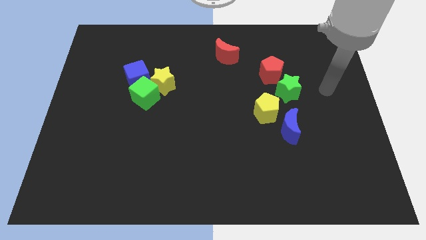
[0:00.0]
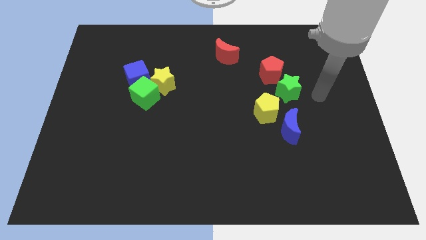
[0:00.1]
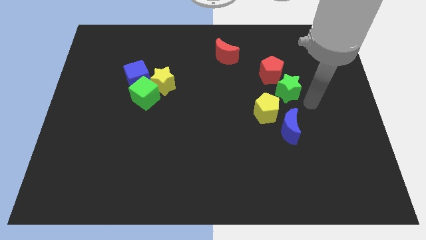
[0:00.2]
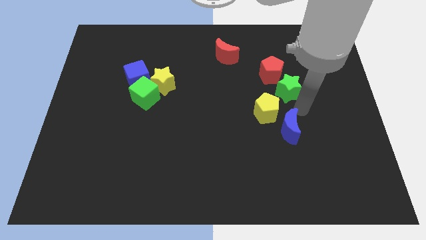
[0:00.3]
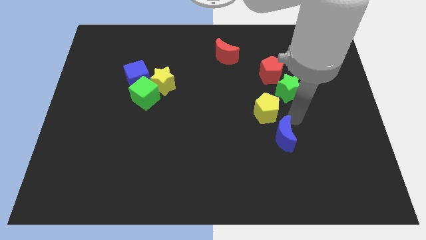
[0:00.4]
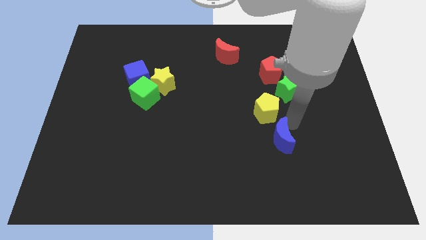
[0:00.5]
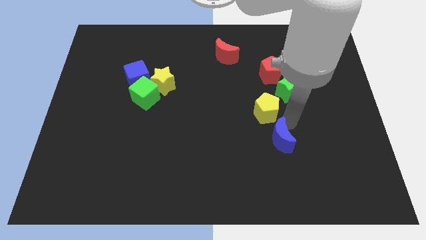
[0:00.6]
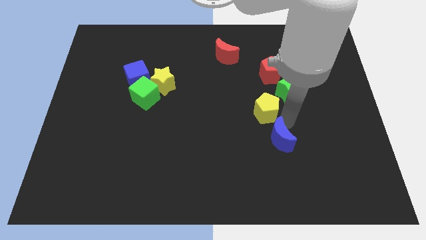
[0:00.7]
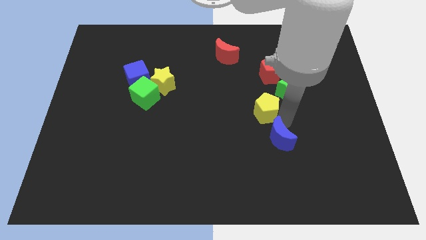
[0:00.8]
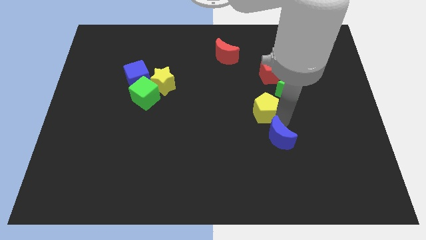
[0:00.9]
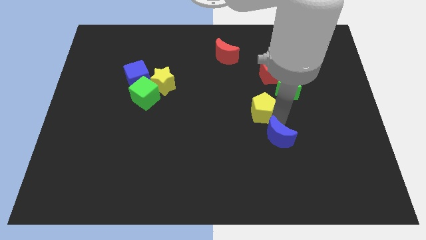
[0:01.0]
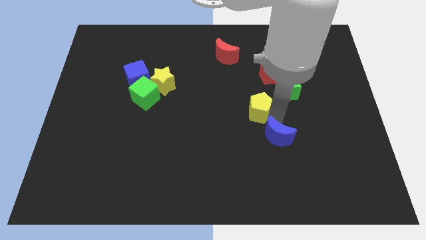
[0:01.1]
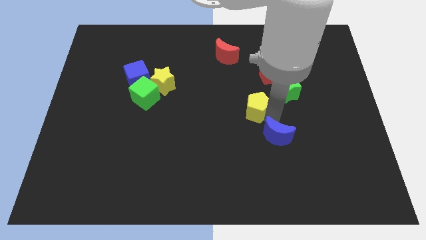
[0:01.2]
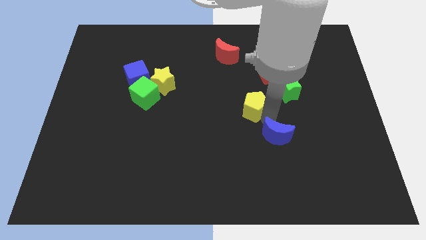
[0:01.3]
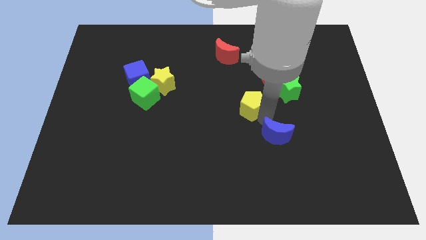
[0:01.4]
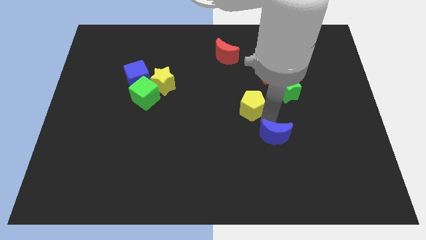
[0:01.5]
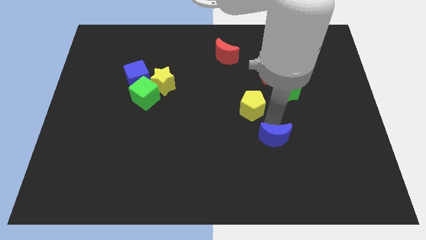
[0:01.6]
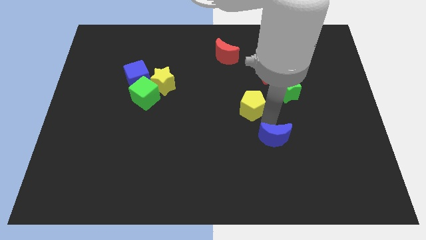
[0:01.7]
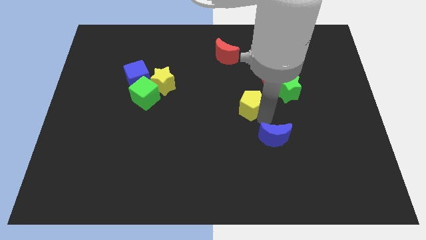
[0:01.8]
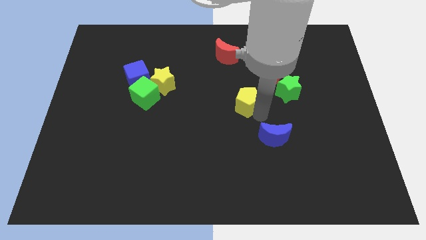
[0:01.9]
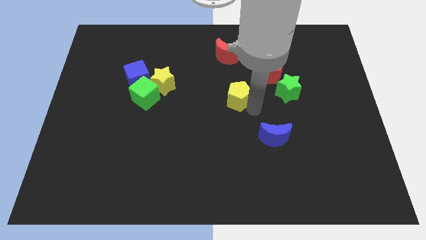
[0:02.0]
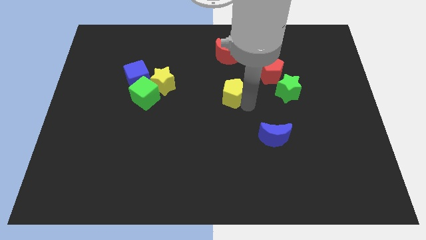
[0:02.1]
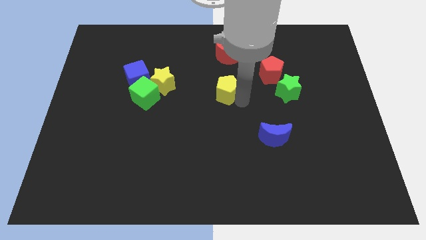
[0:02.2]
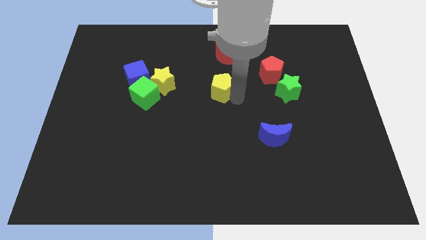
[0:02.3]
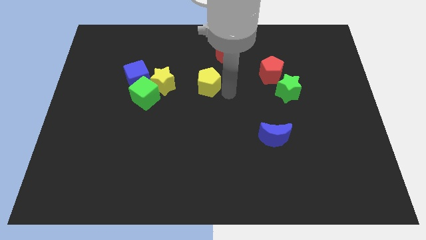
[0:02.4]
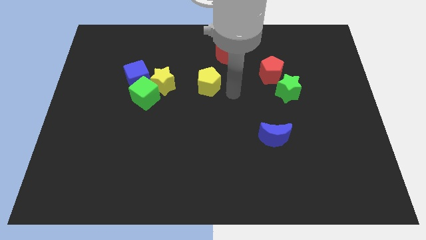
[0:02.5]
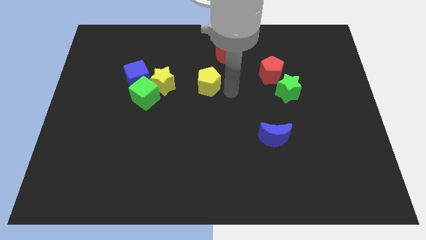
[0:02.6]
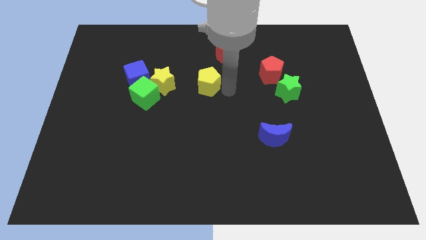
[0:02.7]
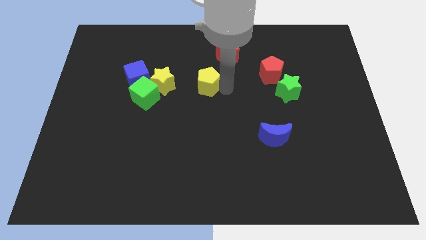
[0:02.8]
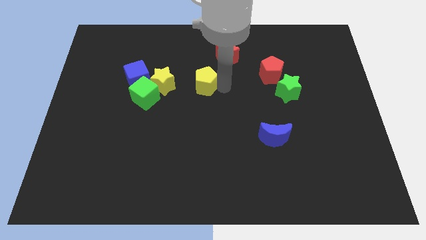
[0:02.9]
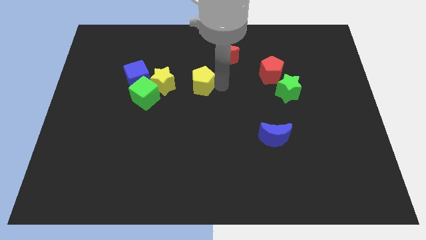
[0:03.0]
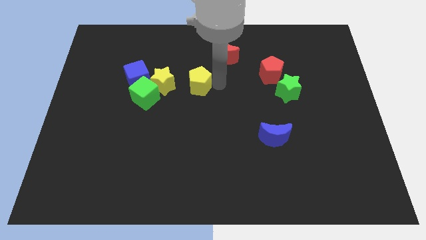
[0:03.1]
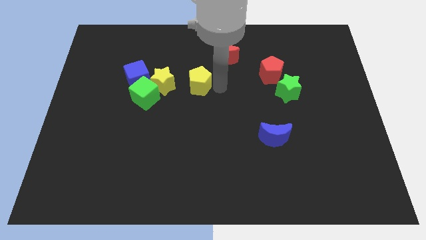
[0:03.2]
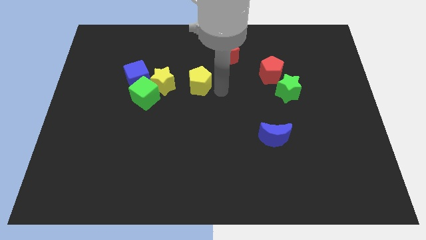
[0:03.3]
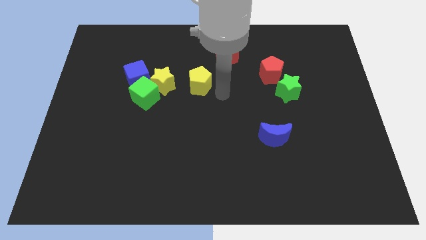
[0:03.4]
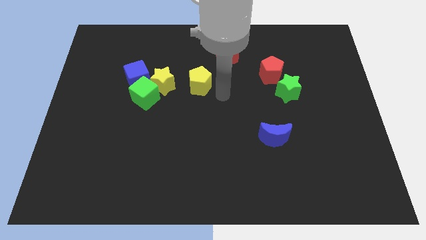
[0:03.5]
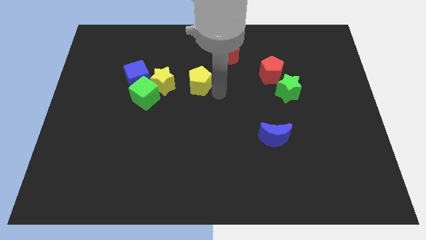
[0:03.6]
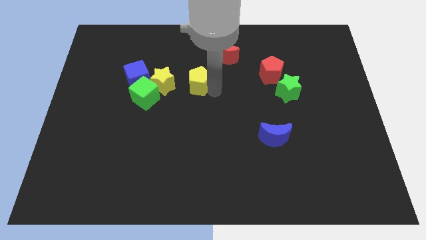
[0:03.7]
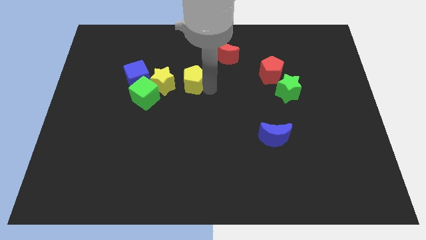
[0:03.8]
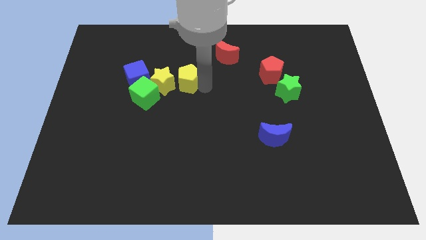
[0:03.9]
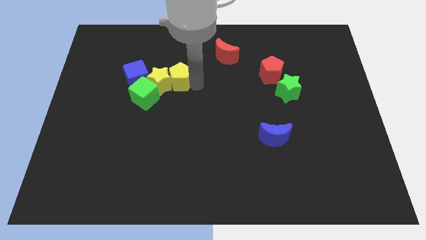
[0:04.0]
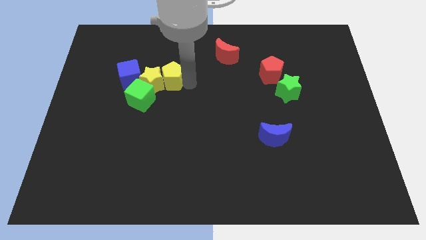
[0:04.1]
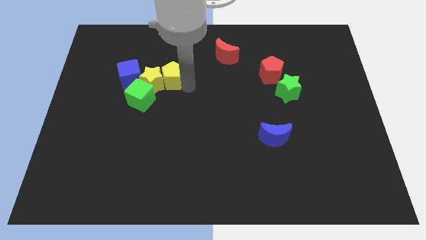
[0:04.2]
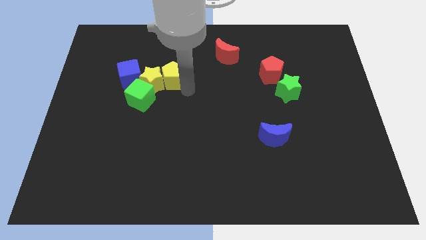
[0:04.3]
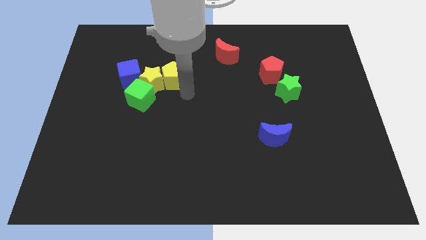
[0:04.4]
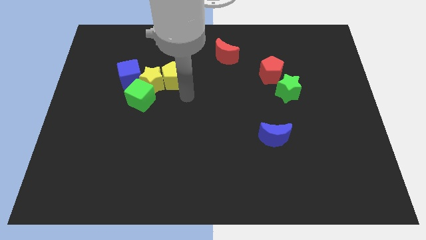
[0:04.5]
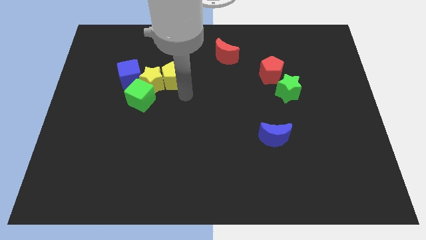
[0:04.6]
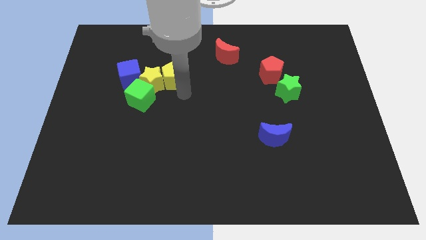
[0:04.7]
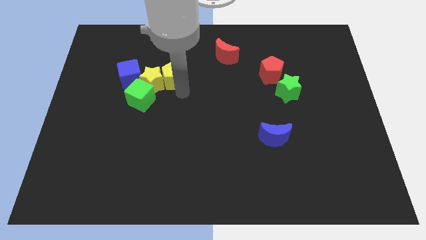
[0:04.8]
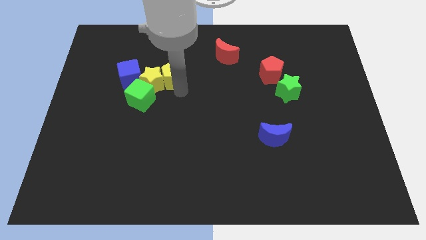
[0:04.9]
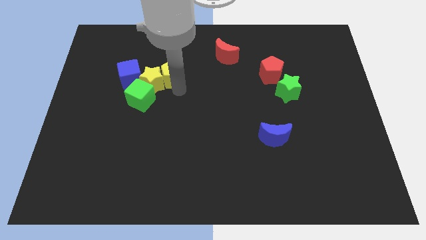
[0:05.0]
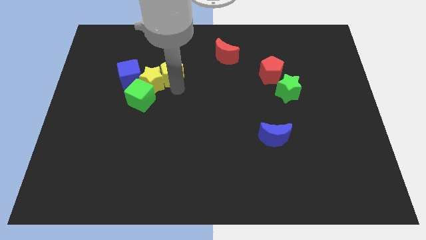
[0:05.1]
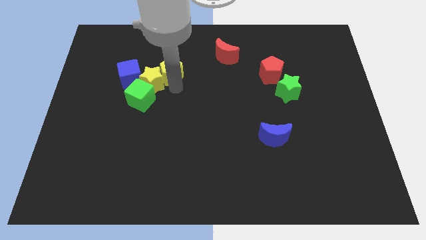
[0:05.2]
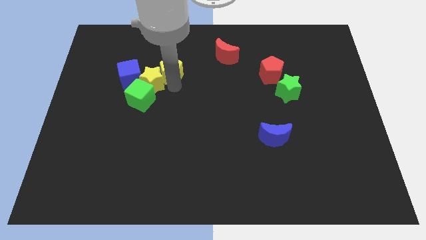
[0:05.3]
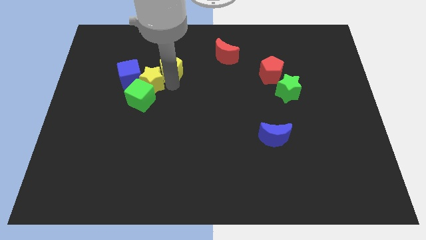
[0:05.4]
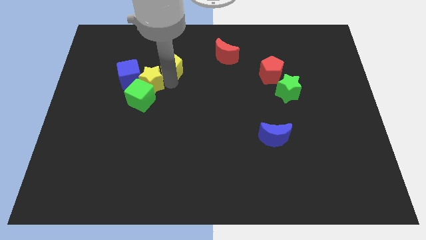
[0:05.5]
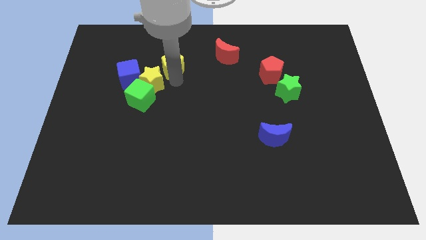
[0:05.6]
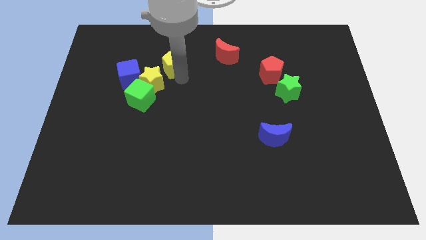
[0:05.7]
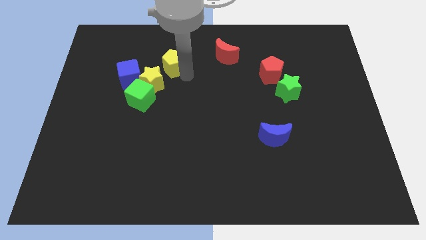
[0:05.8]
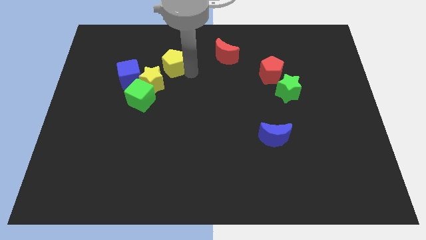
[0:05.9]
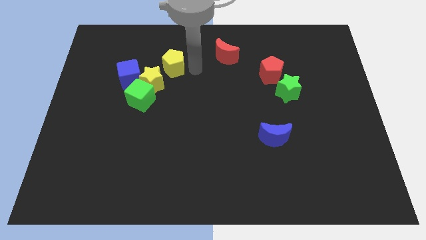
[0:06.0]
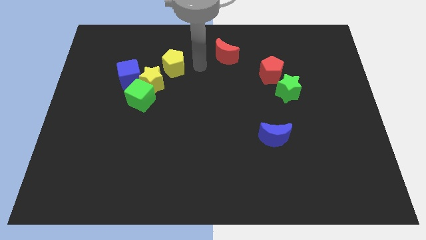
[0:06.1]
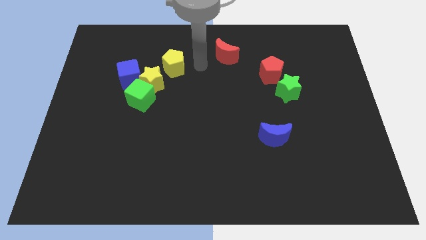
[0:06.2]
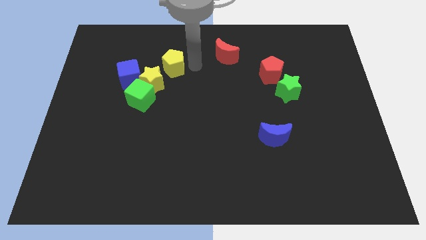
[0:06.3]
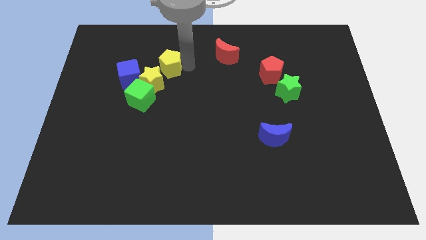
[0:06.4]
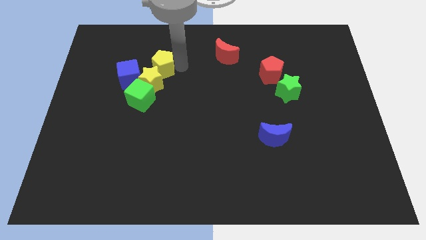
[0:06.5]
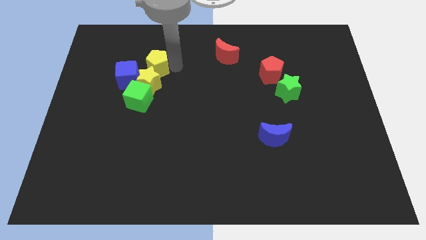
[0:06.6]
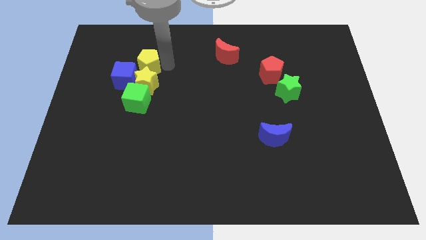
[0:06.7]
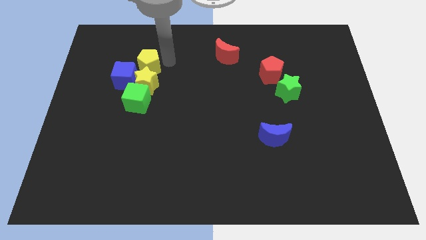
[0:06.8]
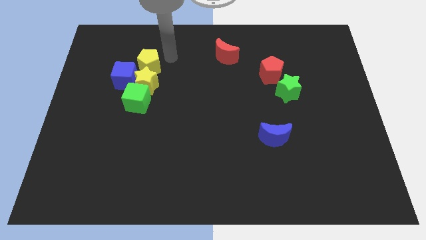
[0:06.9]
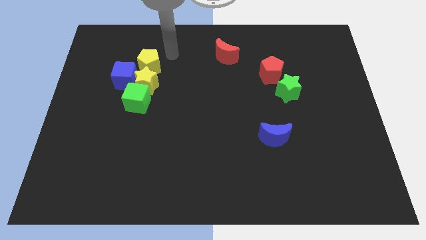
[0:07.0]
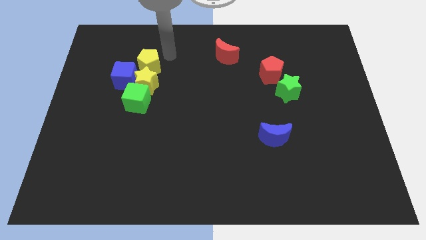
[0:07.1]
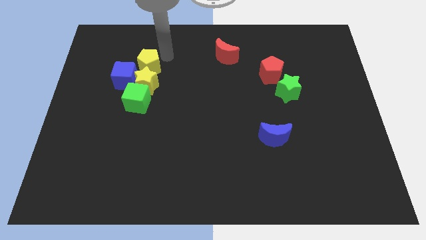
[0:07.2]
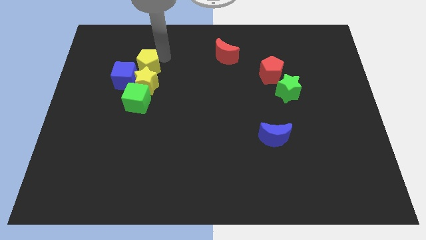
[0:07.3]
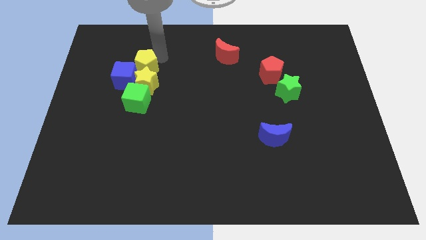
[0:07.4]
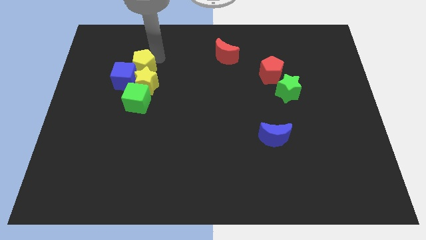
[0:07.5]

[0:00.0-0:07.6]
push the yellow pentagon next to the blue cube
